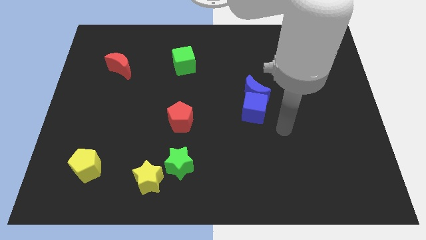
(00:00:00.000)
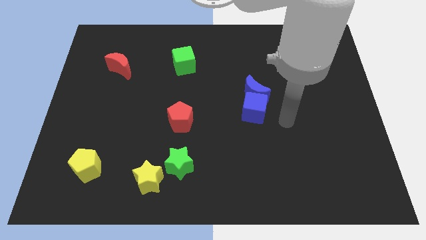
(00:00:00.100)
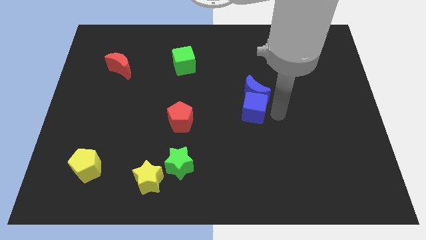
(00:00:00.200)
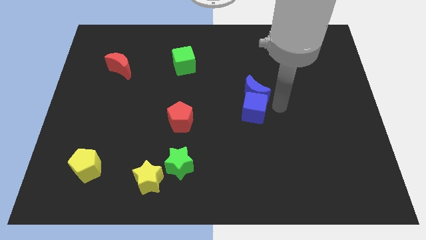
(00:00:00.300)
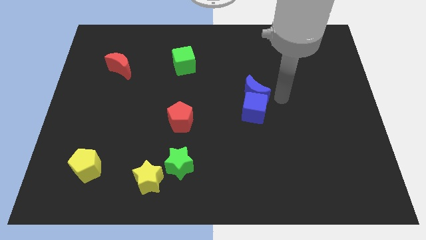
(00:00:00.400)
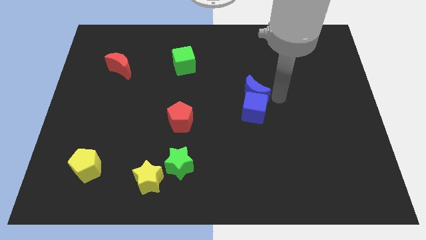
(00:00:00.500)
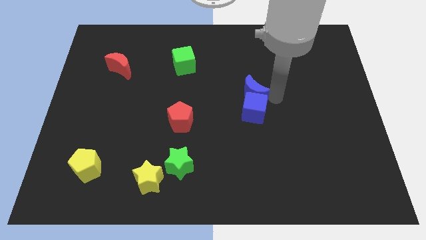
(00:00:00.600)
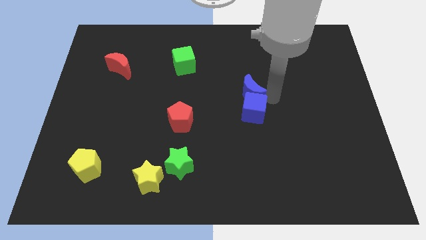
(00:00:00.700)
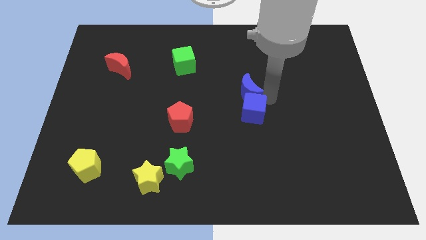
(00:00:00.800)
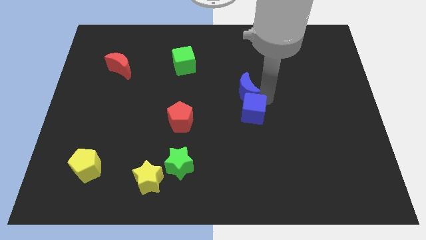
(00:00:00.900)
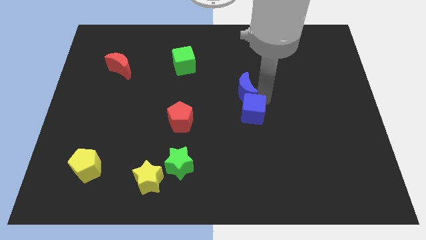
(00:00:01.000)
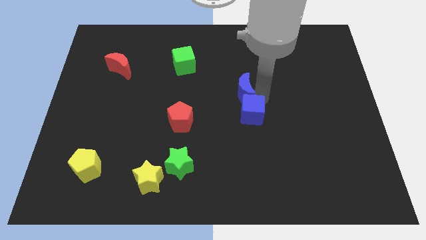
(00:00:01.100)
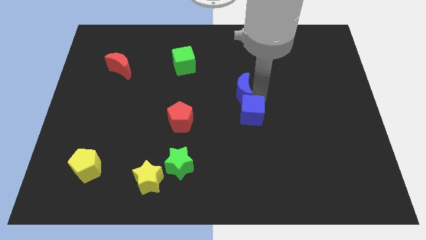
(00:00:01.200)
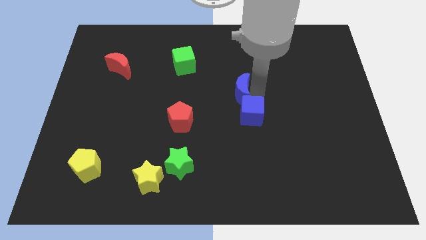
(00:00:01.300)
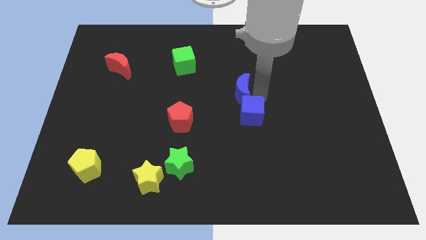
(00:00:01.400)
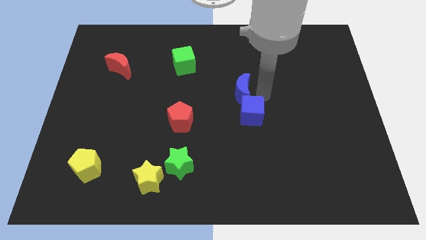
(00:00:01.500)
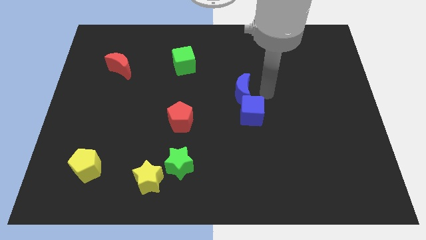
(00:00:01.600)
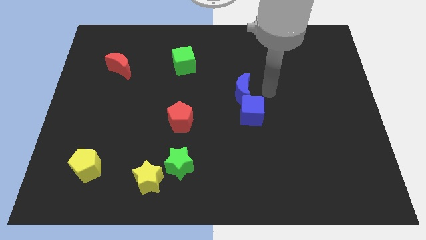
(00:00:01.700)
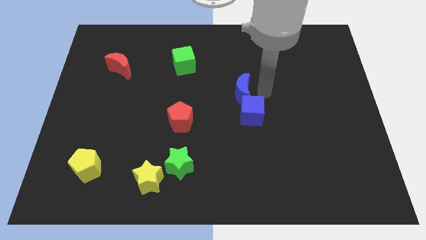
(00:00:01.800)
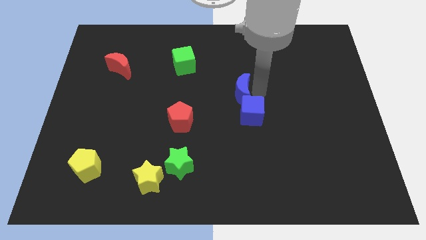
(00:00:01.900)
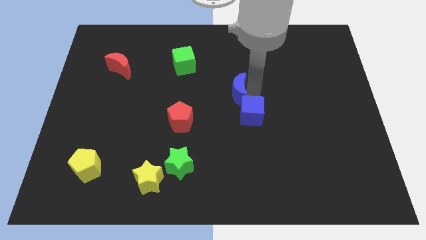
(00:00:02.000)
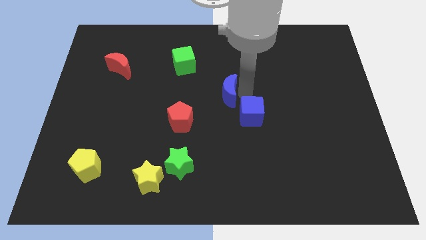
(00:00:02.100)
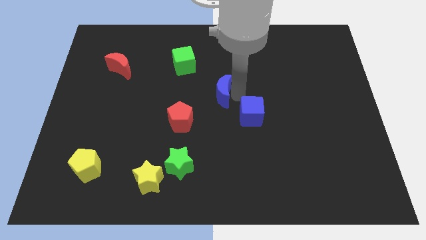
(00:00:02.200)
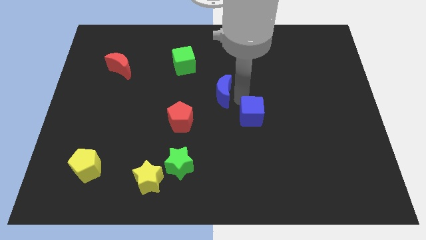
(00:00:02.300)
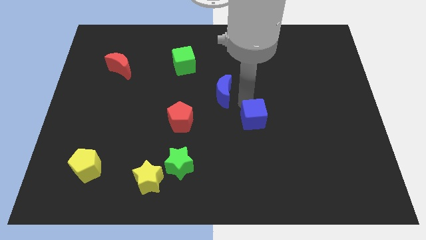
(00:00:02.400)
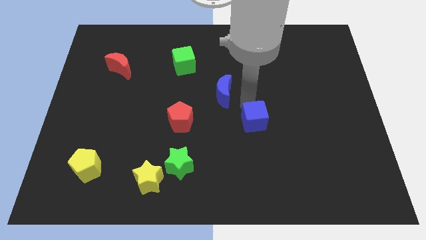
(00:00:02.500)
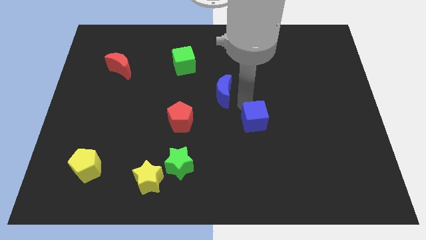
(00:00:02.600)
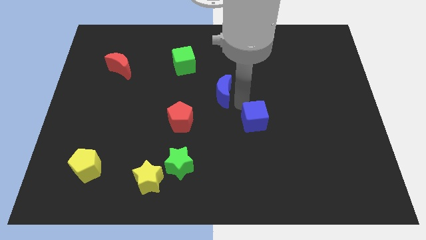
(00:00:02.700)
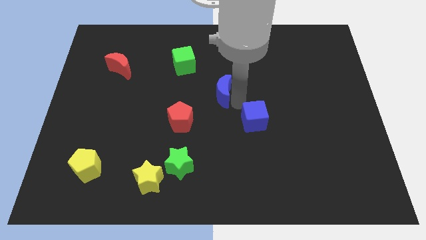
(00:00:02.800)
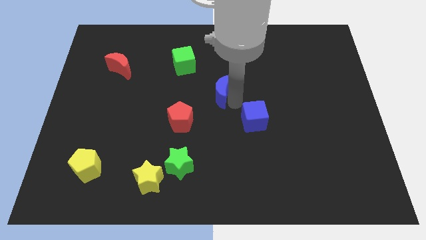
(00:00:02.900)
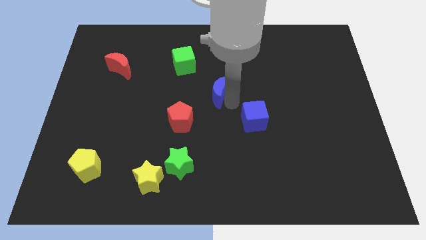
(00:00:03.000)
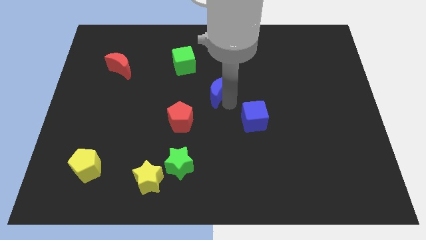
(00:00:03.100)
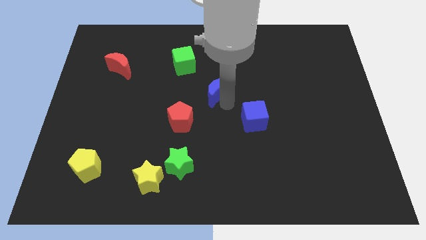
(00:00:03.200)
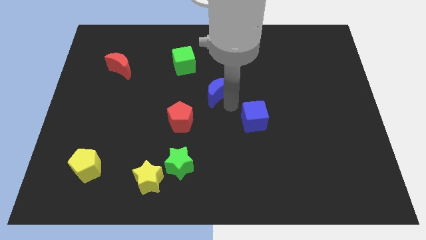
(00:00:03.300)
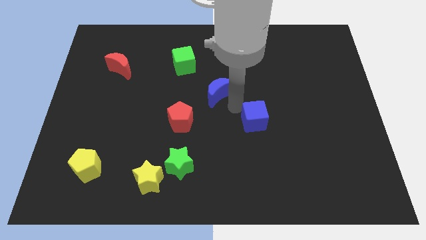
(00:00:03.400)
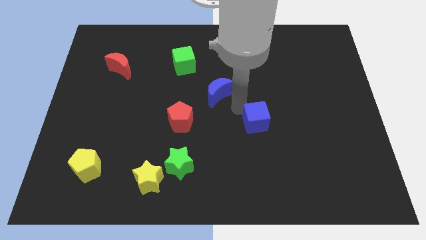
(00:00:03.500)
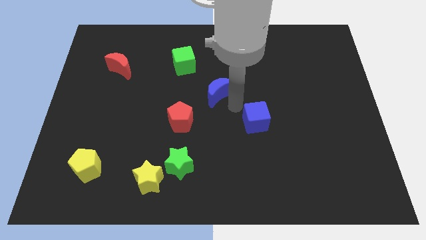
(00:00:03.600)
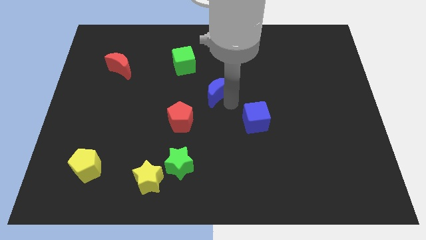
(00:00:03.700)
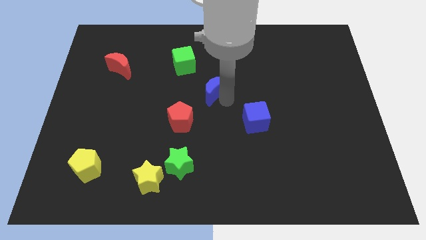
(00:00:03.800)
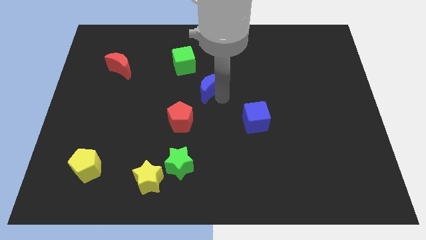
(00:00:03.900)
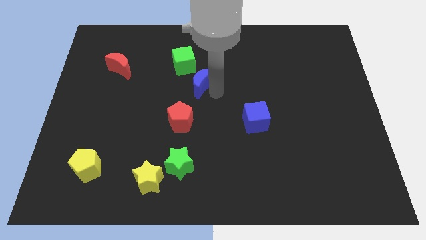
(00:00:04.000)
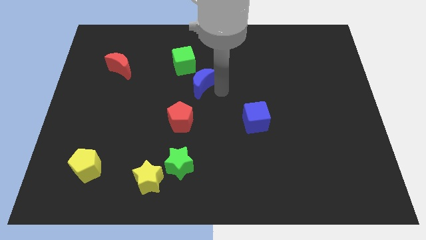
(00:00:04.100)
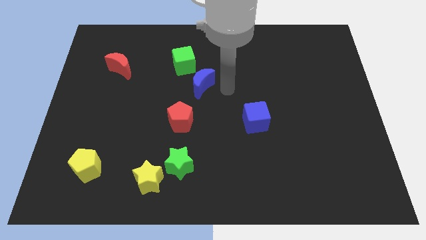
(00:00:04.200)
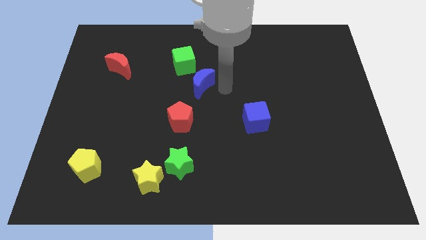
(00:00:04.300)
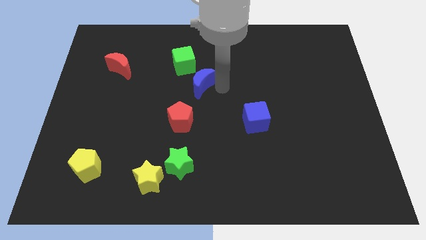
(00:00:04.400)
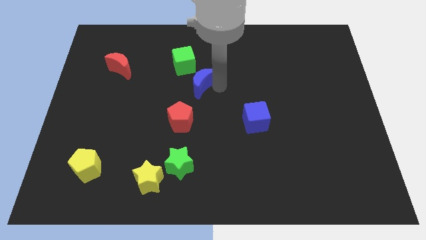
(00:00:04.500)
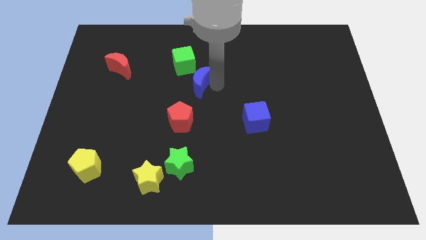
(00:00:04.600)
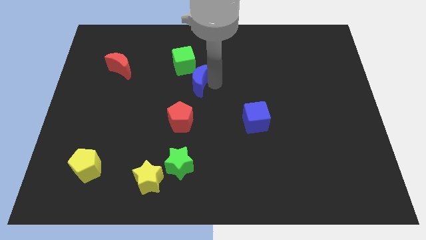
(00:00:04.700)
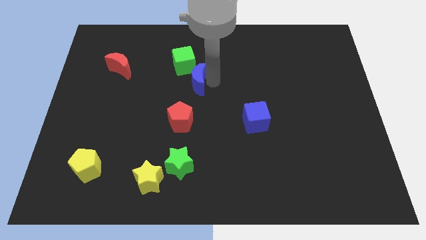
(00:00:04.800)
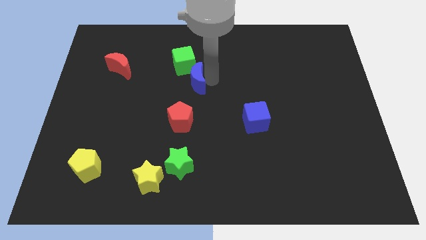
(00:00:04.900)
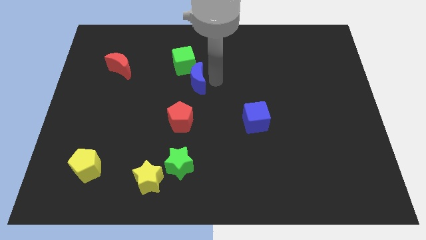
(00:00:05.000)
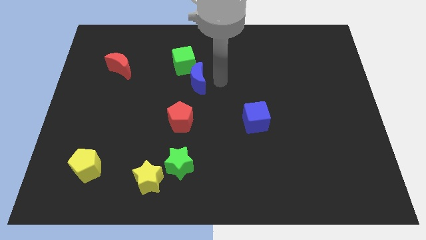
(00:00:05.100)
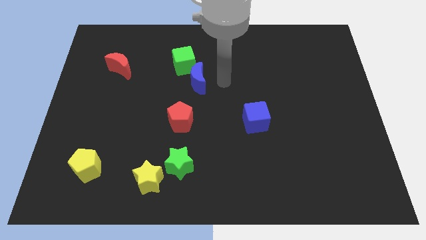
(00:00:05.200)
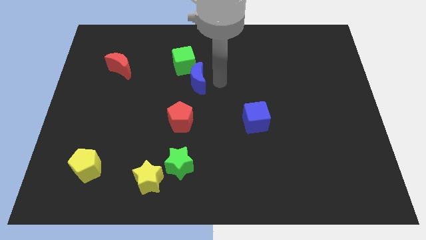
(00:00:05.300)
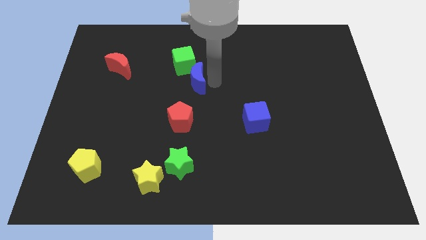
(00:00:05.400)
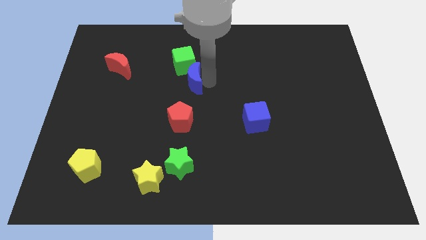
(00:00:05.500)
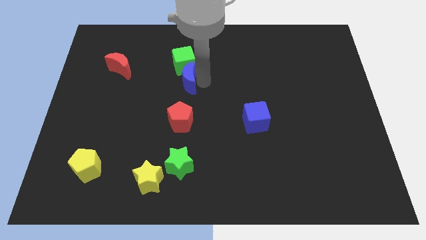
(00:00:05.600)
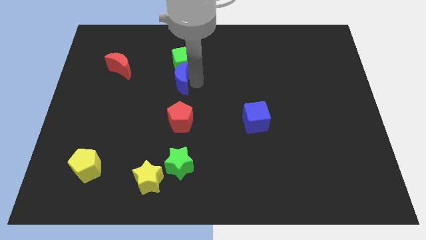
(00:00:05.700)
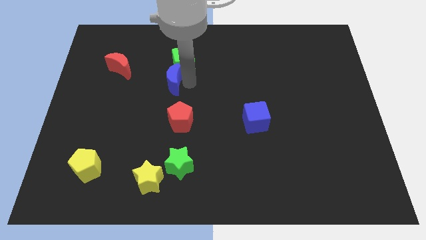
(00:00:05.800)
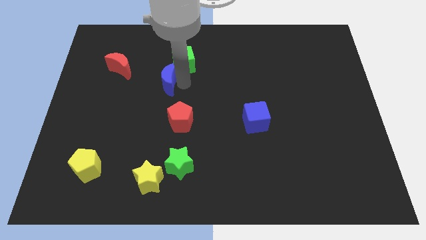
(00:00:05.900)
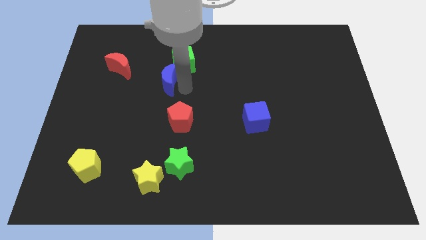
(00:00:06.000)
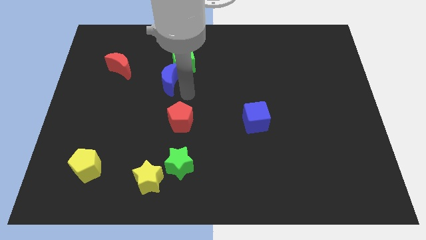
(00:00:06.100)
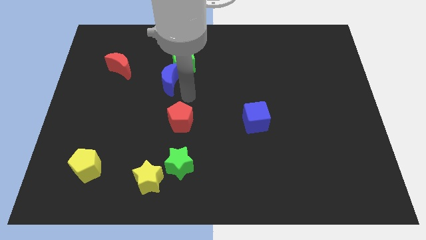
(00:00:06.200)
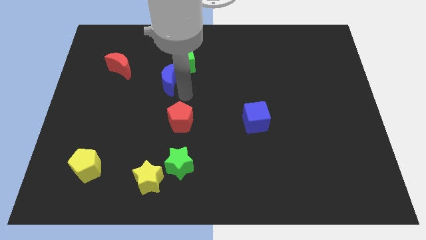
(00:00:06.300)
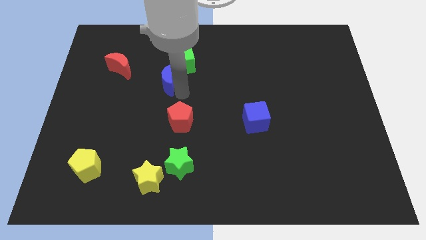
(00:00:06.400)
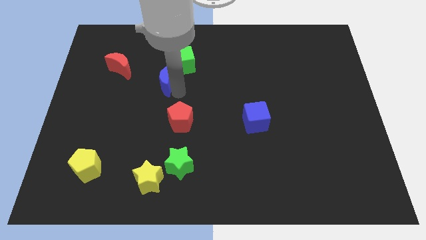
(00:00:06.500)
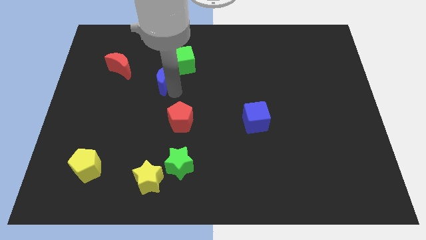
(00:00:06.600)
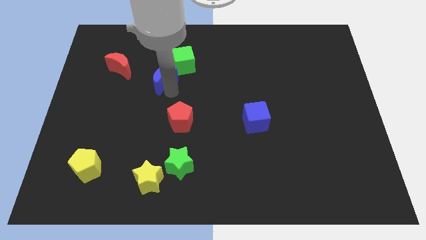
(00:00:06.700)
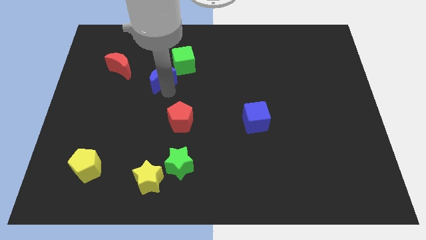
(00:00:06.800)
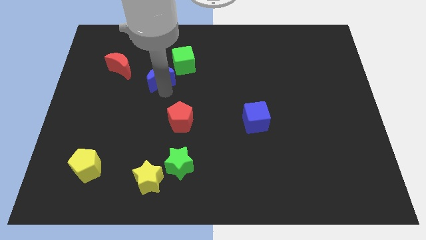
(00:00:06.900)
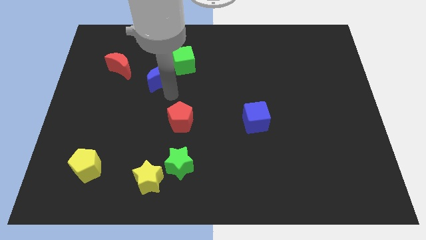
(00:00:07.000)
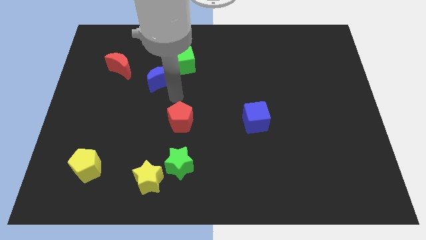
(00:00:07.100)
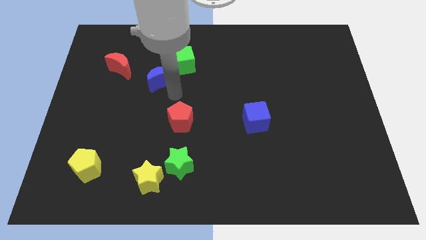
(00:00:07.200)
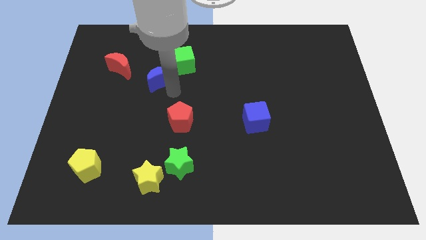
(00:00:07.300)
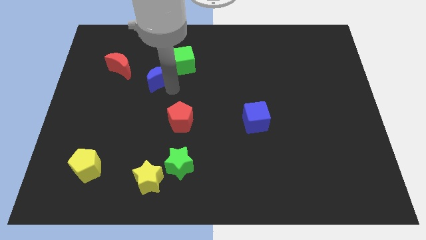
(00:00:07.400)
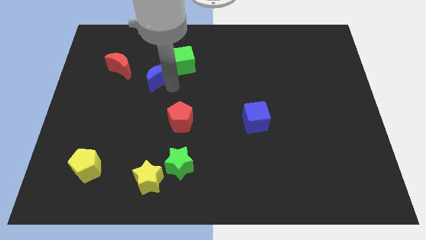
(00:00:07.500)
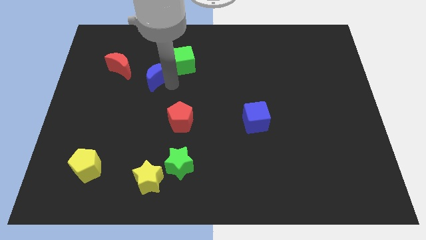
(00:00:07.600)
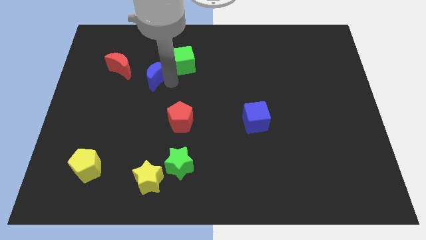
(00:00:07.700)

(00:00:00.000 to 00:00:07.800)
put the blue moon just left of the green cube
